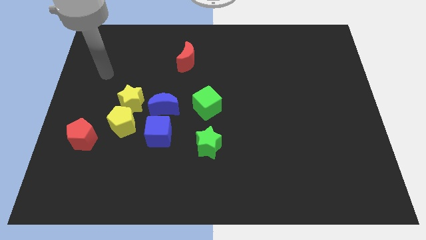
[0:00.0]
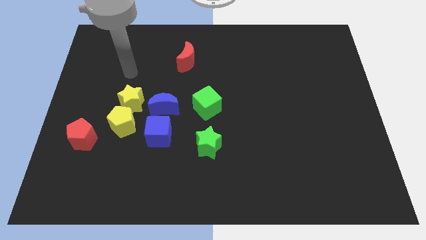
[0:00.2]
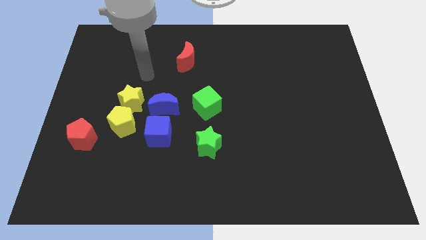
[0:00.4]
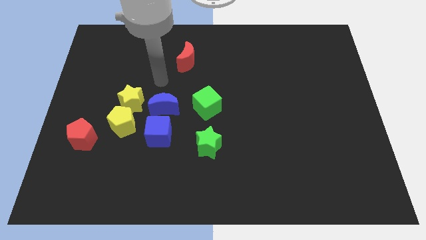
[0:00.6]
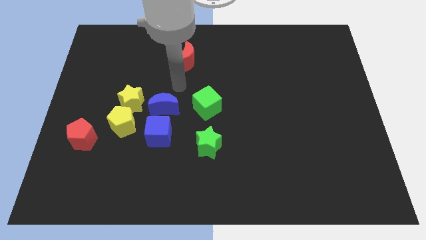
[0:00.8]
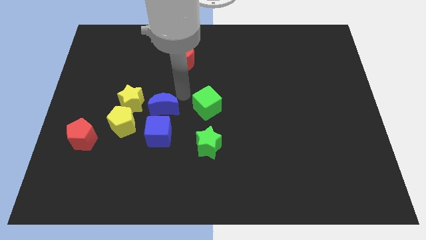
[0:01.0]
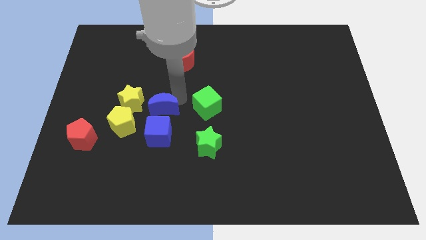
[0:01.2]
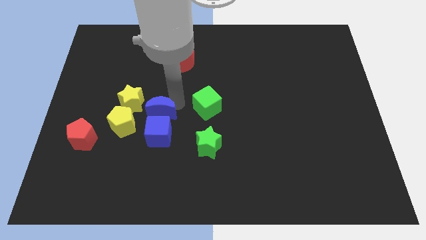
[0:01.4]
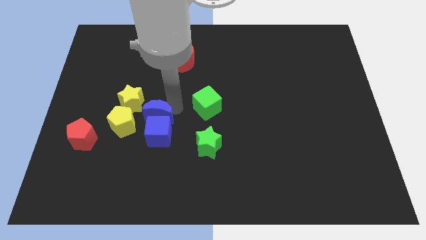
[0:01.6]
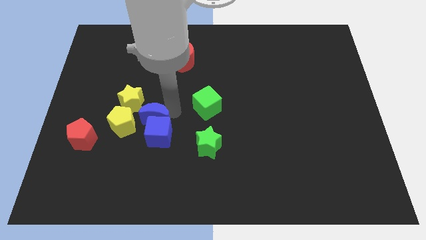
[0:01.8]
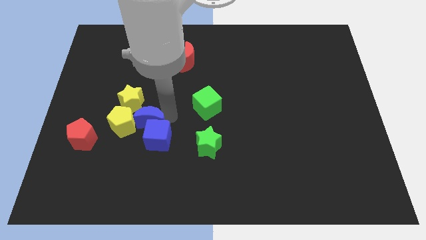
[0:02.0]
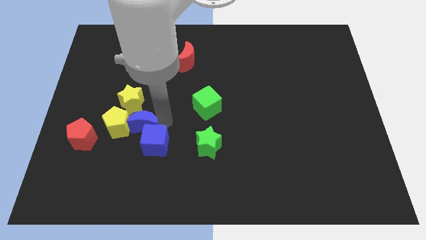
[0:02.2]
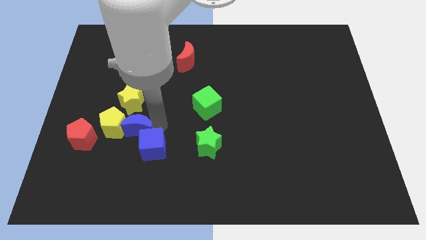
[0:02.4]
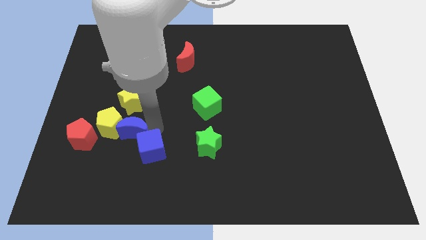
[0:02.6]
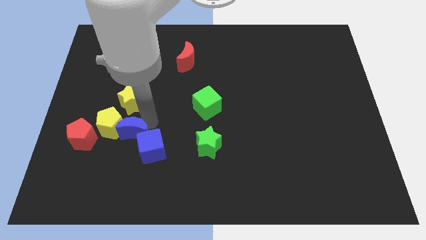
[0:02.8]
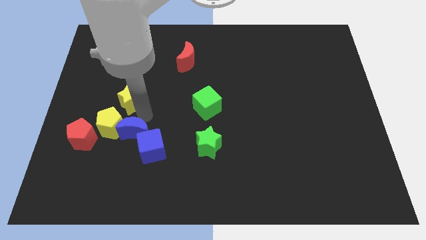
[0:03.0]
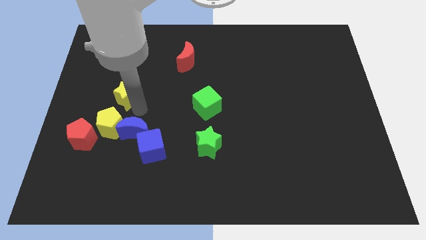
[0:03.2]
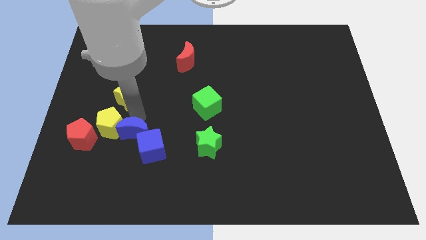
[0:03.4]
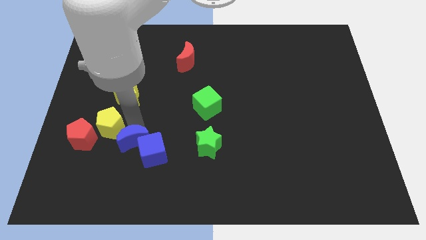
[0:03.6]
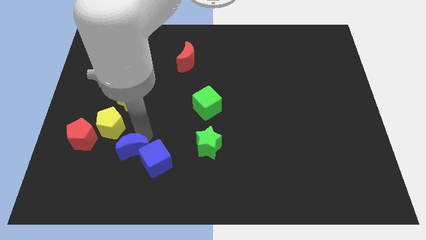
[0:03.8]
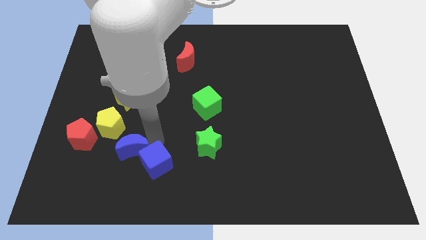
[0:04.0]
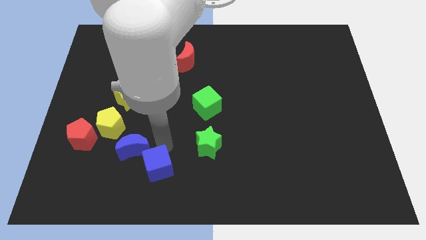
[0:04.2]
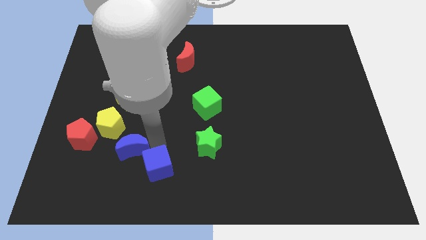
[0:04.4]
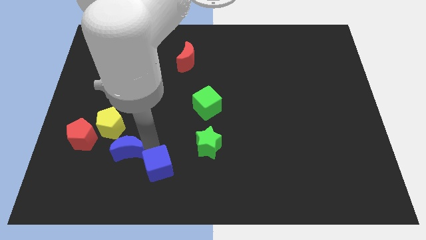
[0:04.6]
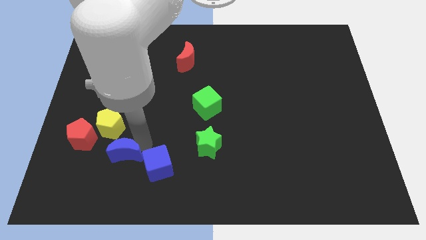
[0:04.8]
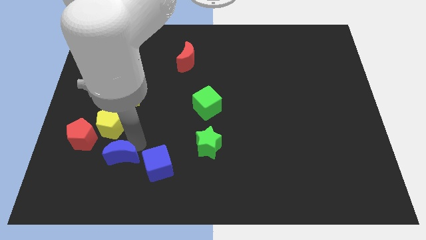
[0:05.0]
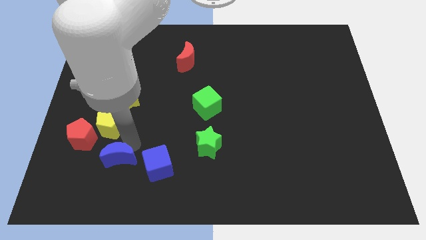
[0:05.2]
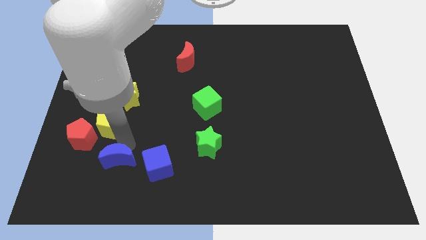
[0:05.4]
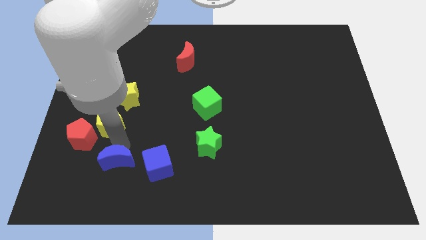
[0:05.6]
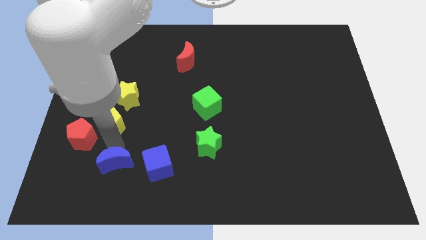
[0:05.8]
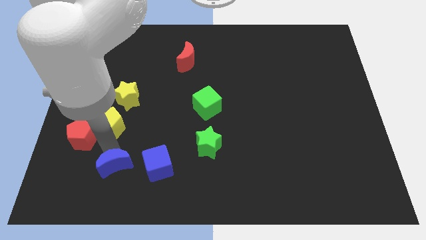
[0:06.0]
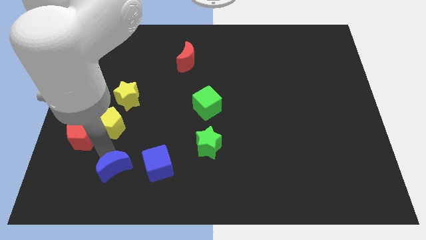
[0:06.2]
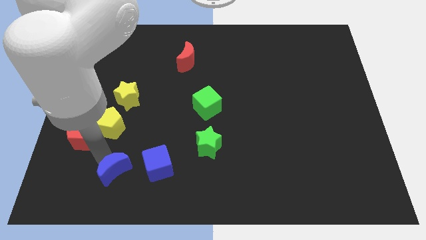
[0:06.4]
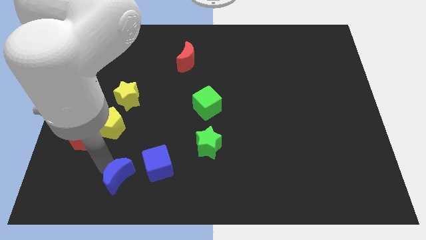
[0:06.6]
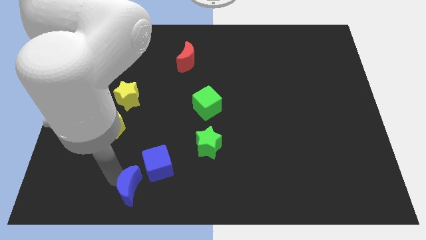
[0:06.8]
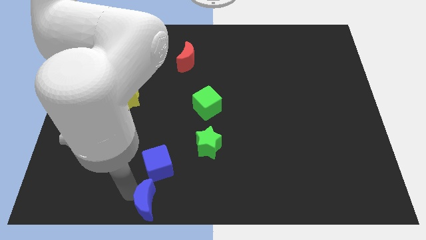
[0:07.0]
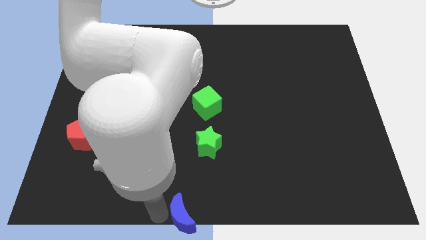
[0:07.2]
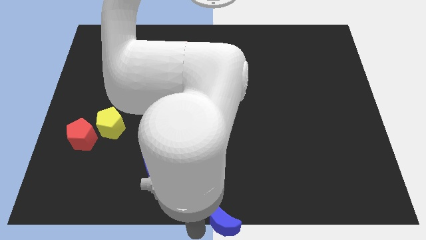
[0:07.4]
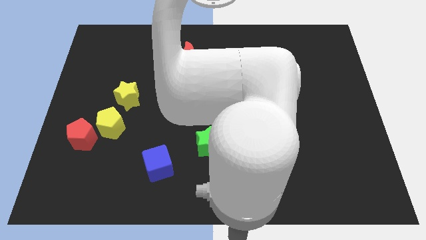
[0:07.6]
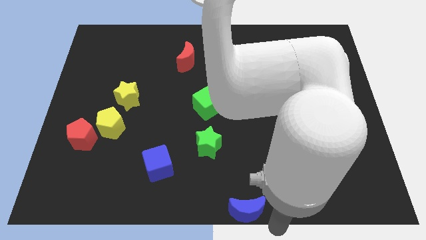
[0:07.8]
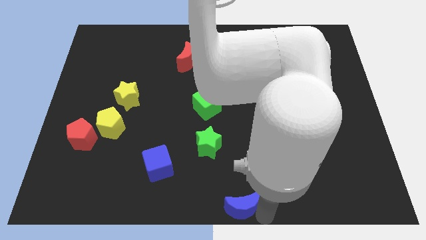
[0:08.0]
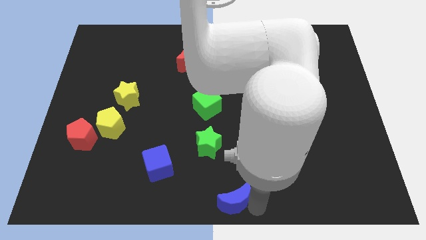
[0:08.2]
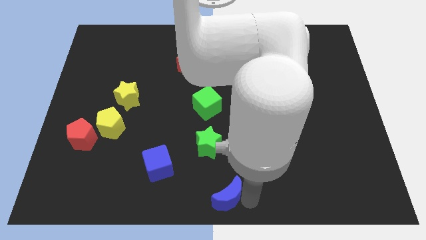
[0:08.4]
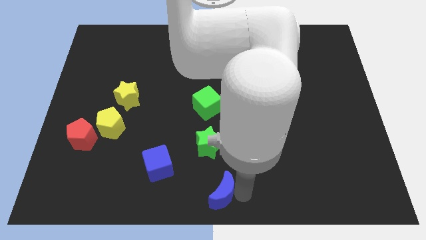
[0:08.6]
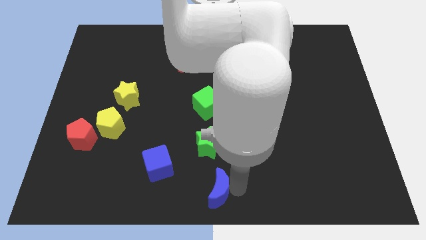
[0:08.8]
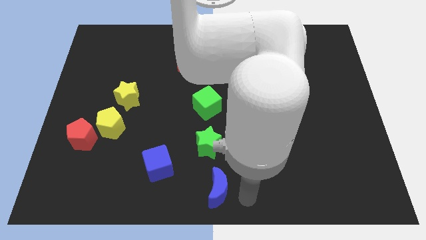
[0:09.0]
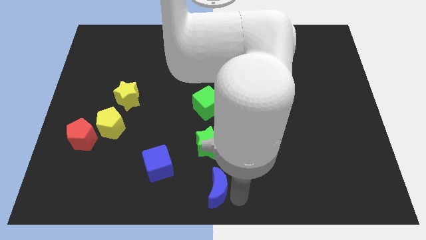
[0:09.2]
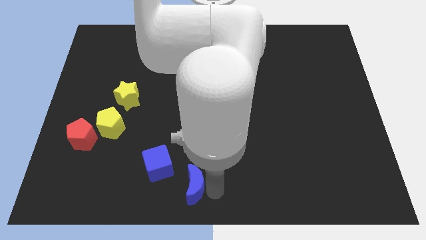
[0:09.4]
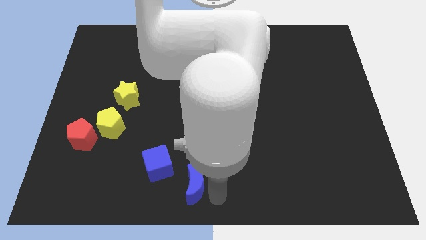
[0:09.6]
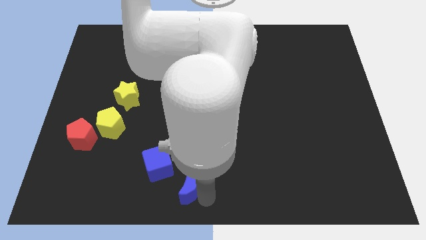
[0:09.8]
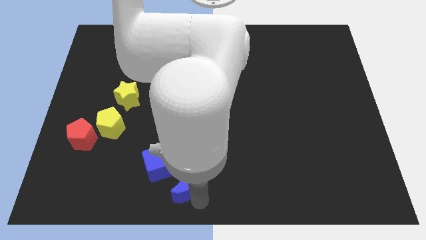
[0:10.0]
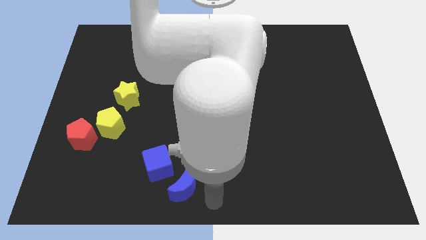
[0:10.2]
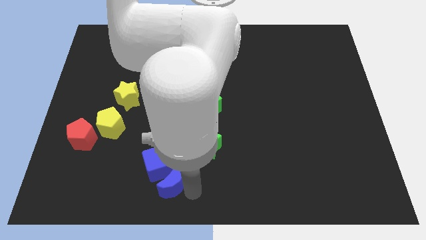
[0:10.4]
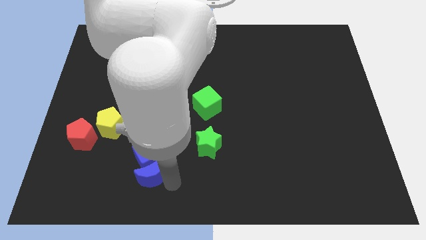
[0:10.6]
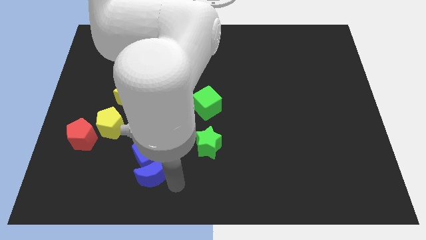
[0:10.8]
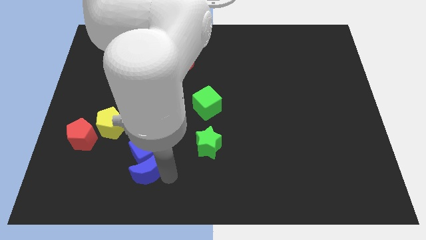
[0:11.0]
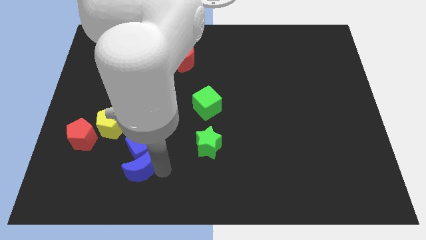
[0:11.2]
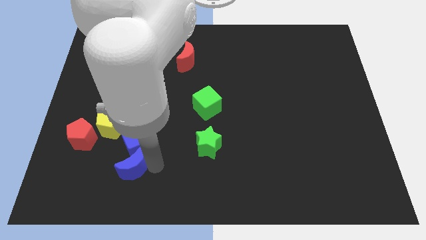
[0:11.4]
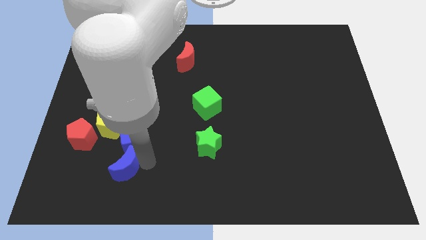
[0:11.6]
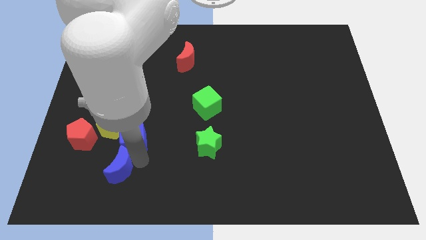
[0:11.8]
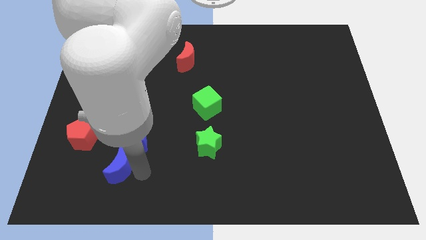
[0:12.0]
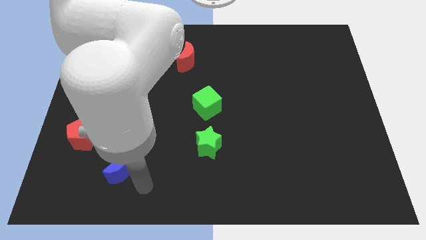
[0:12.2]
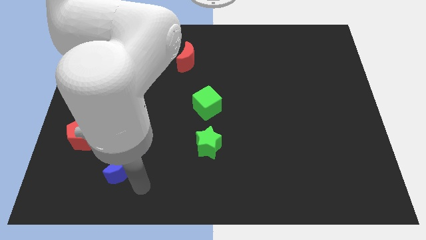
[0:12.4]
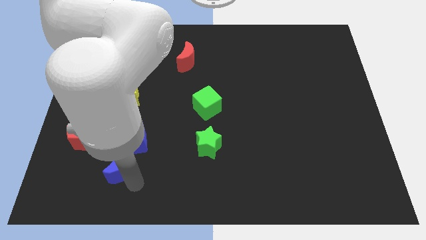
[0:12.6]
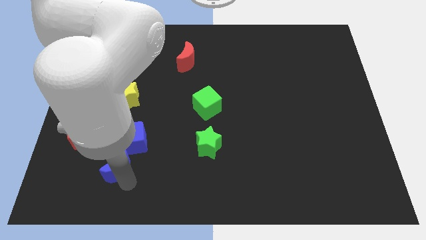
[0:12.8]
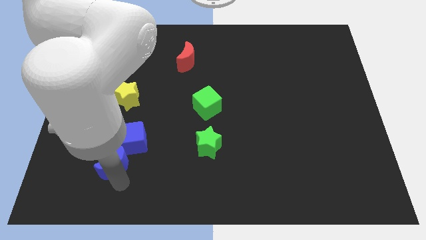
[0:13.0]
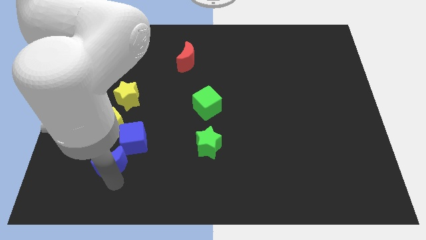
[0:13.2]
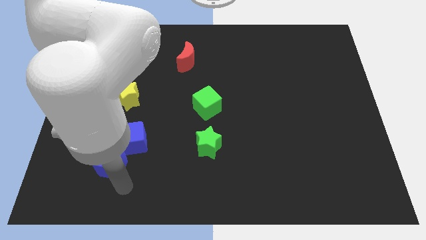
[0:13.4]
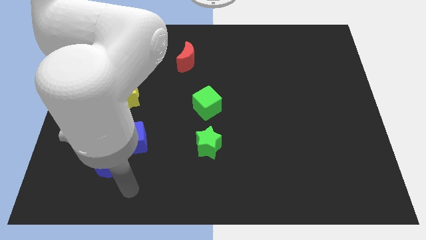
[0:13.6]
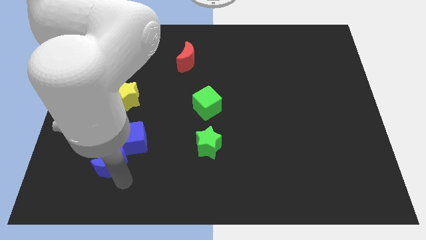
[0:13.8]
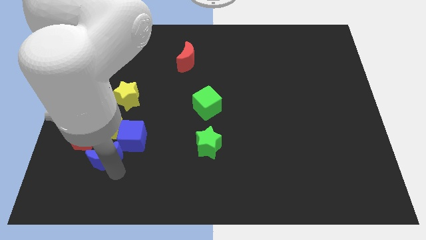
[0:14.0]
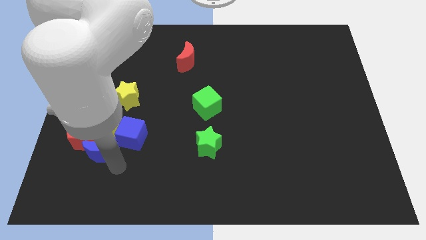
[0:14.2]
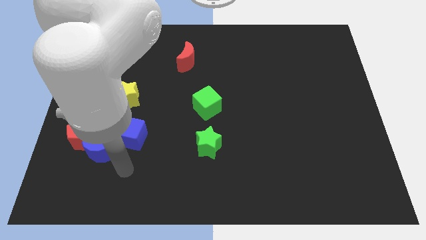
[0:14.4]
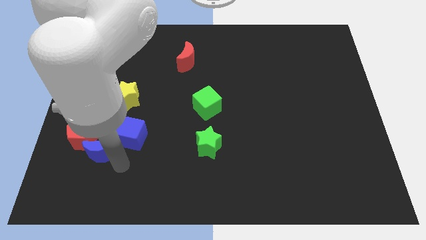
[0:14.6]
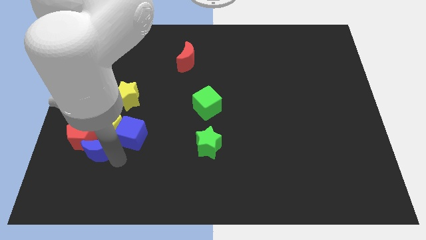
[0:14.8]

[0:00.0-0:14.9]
slide the blue moon close to the red pentagon
